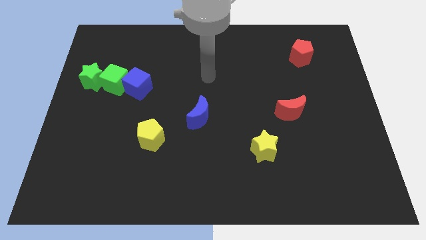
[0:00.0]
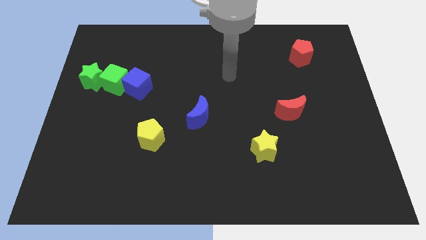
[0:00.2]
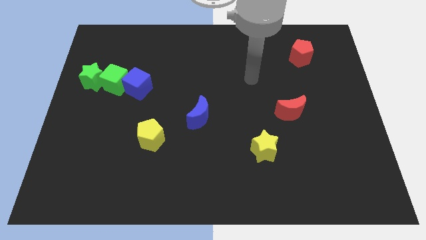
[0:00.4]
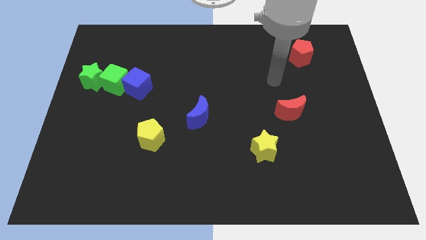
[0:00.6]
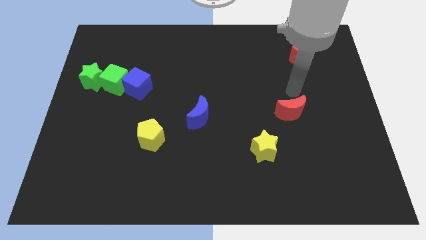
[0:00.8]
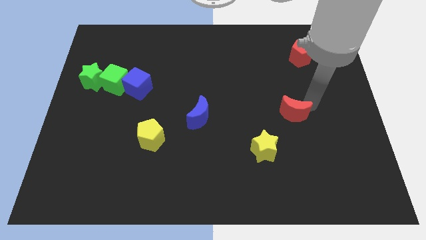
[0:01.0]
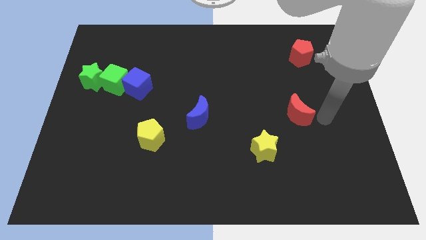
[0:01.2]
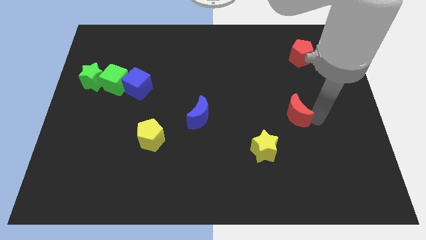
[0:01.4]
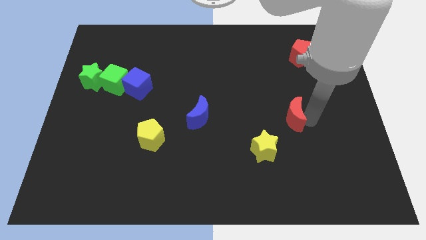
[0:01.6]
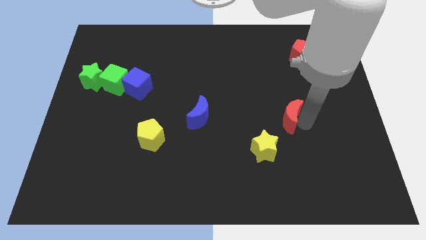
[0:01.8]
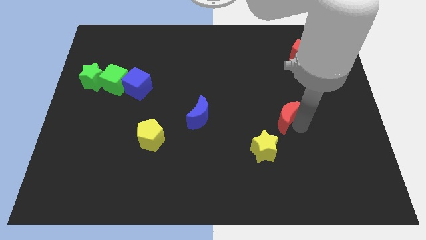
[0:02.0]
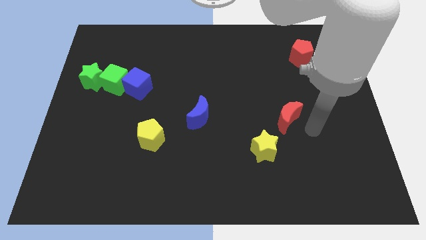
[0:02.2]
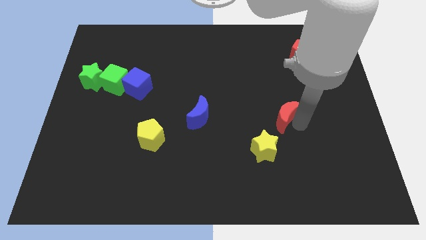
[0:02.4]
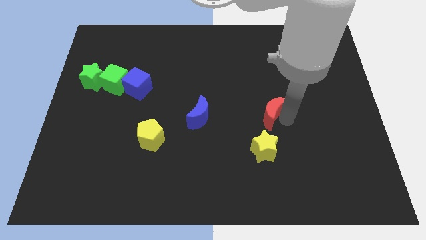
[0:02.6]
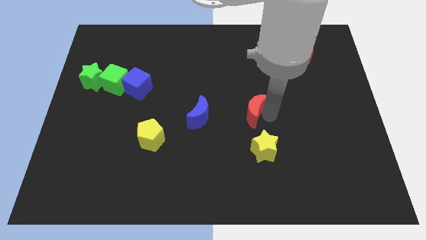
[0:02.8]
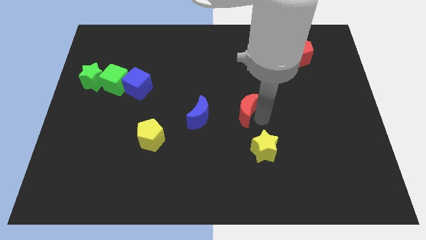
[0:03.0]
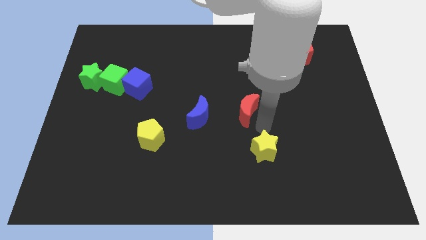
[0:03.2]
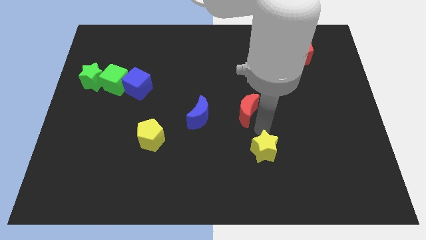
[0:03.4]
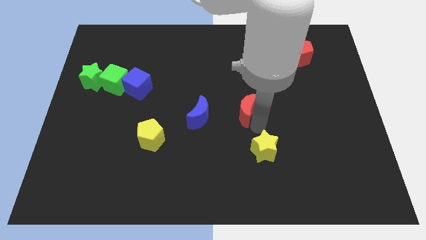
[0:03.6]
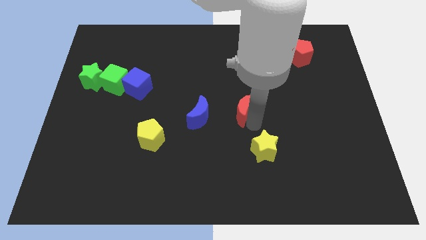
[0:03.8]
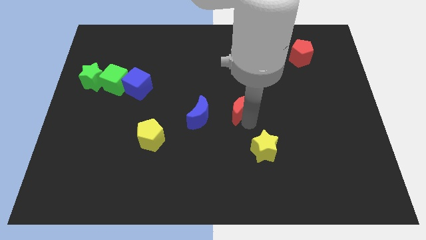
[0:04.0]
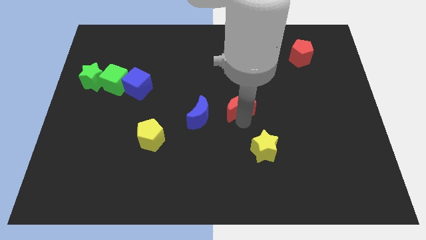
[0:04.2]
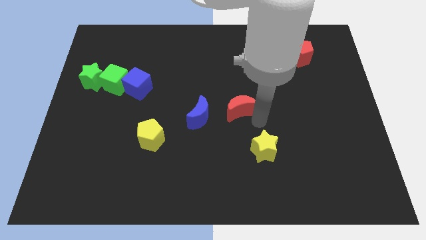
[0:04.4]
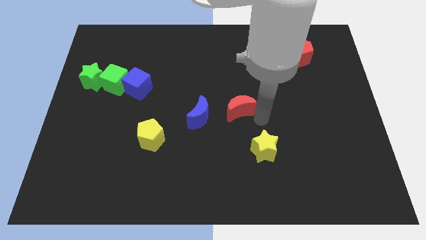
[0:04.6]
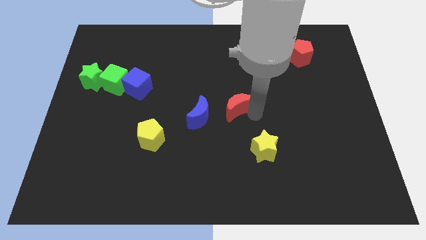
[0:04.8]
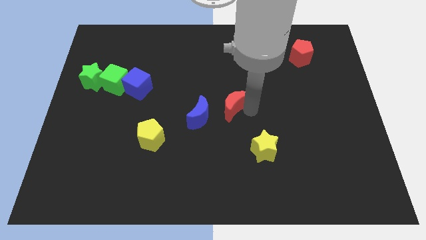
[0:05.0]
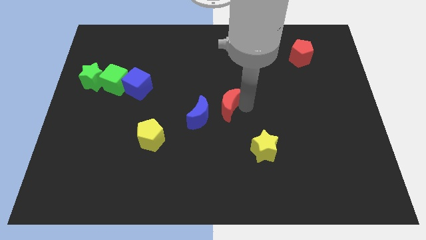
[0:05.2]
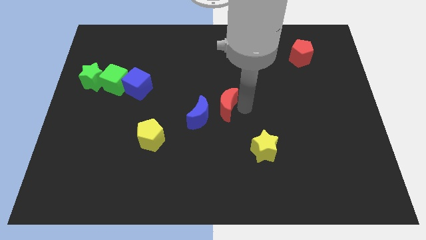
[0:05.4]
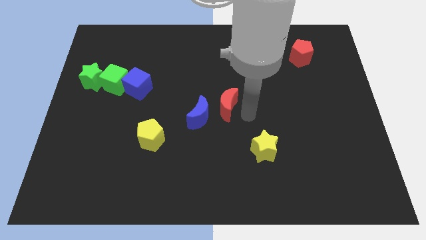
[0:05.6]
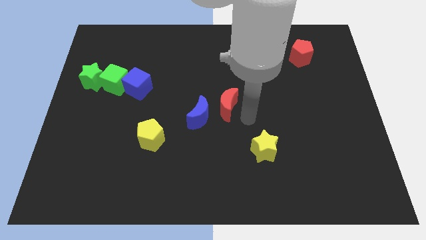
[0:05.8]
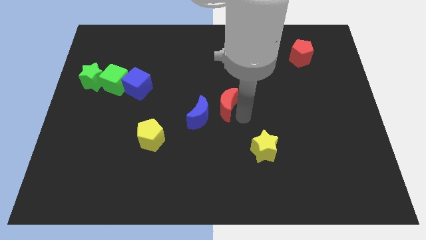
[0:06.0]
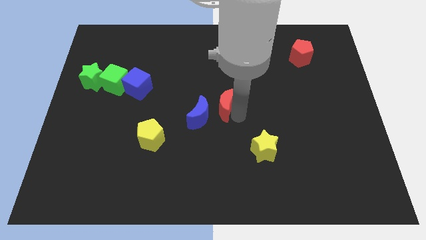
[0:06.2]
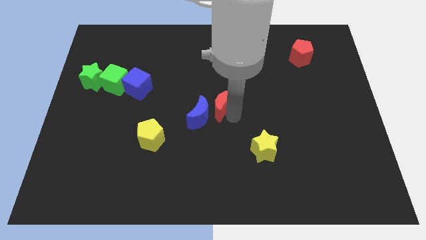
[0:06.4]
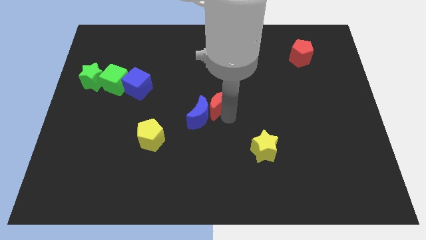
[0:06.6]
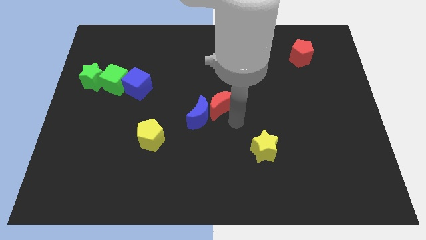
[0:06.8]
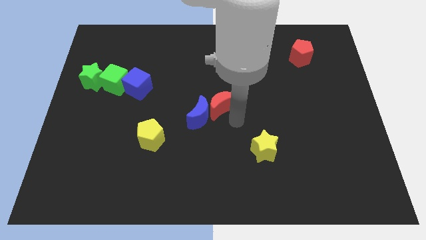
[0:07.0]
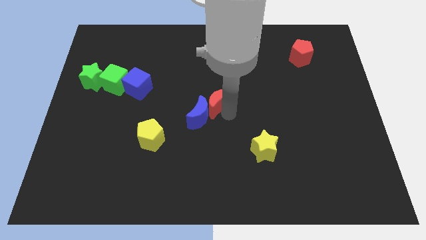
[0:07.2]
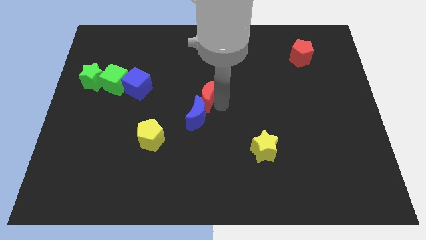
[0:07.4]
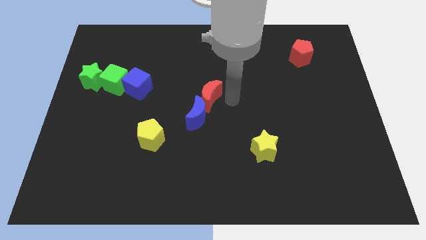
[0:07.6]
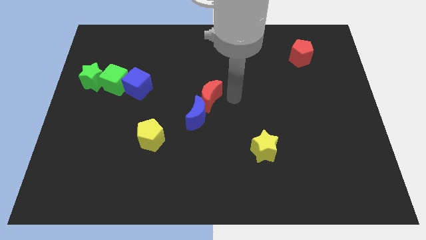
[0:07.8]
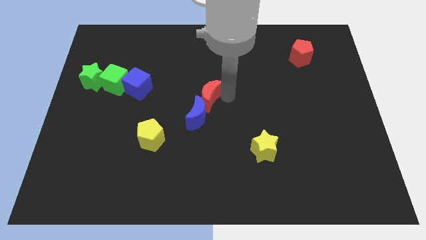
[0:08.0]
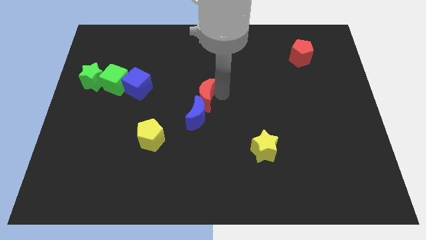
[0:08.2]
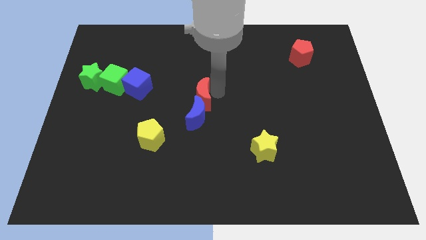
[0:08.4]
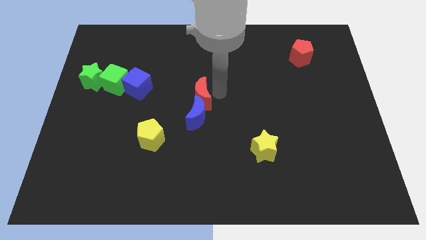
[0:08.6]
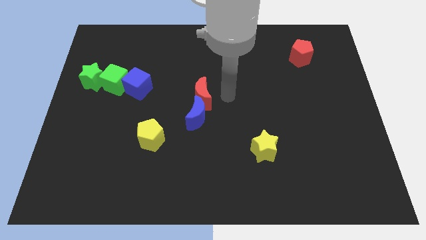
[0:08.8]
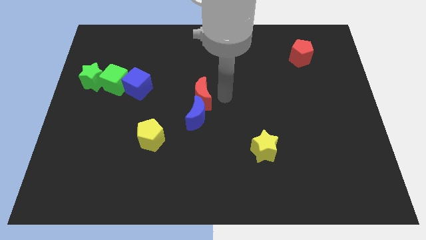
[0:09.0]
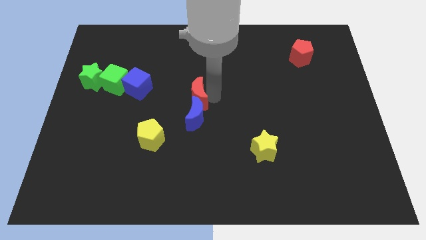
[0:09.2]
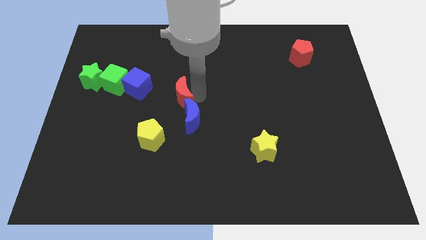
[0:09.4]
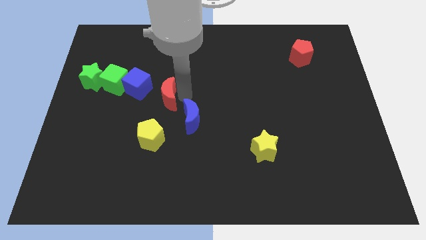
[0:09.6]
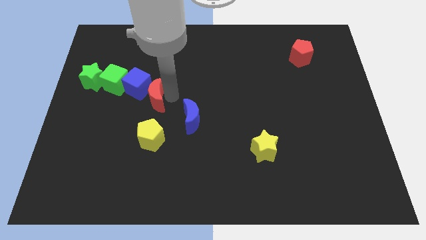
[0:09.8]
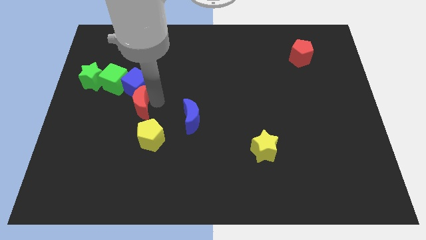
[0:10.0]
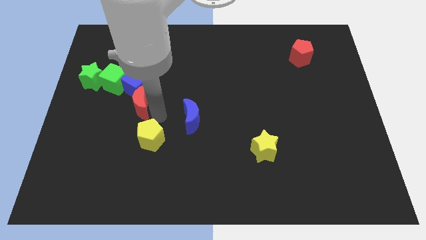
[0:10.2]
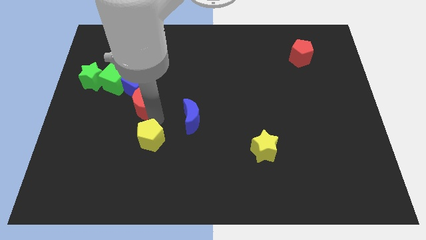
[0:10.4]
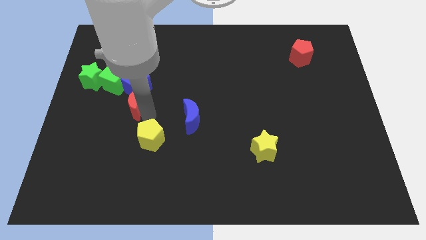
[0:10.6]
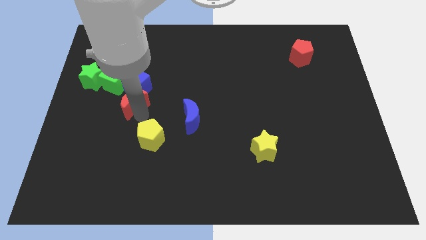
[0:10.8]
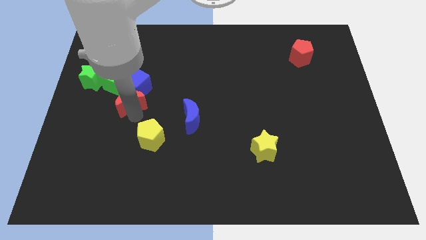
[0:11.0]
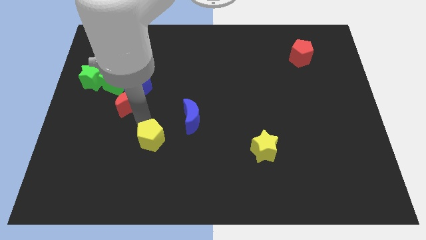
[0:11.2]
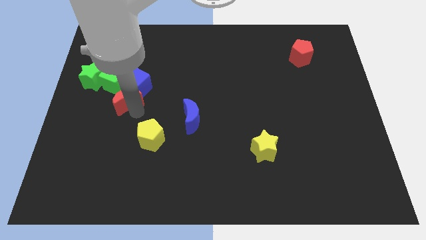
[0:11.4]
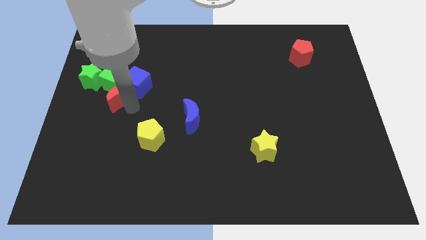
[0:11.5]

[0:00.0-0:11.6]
push the red moon next to the green cube

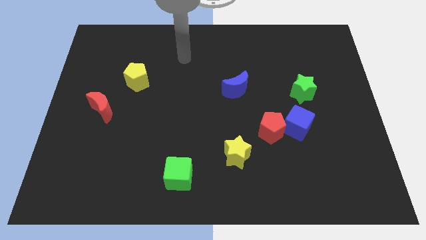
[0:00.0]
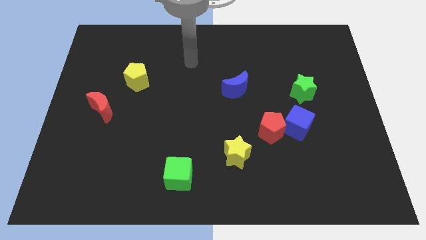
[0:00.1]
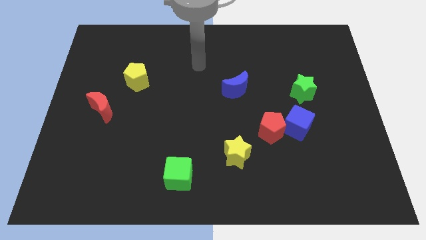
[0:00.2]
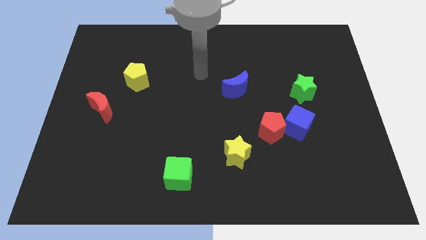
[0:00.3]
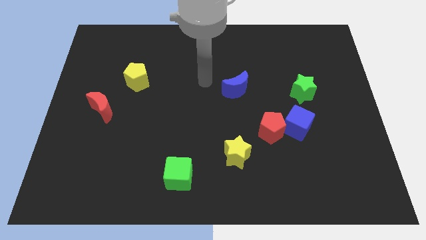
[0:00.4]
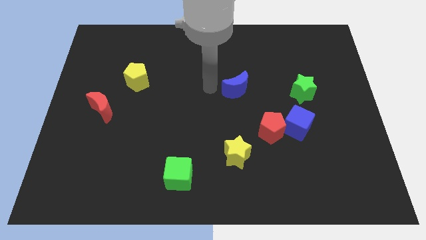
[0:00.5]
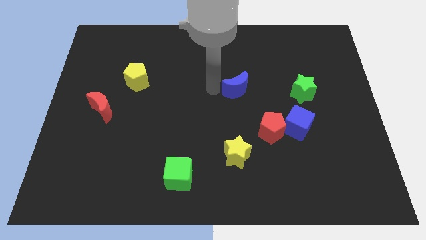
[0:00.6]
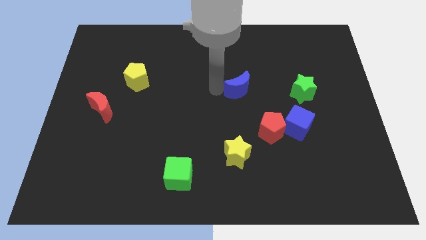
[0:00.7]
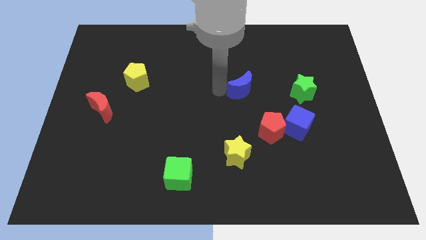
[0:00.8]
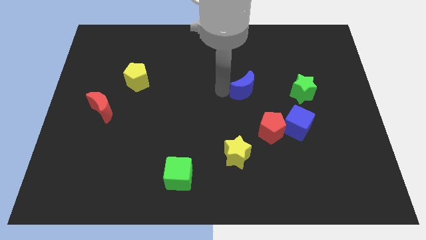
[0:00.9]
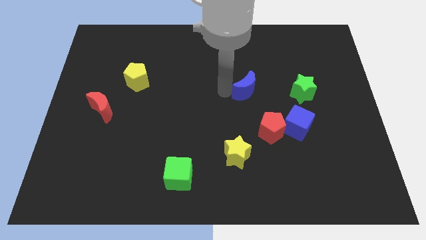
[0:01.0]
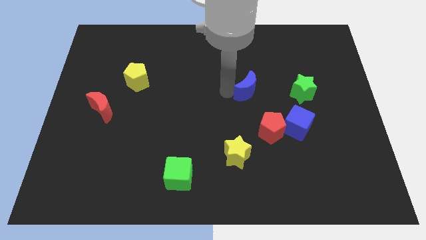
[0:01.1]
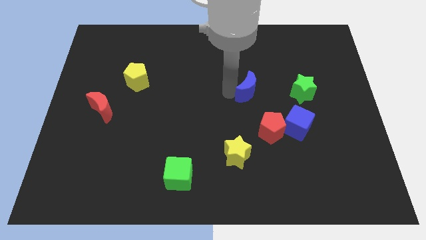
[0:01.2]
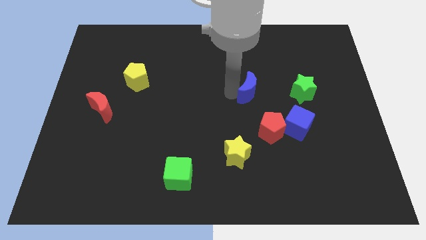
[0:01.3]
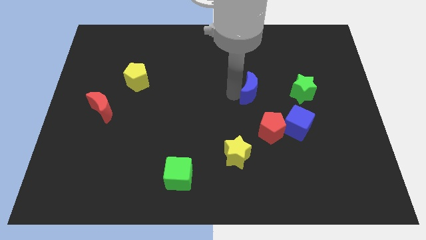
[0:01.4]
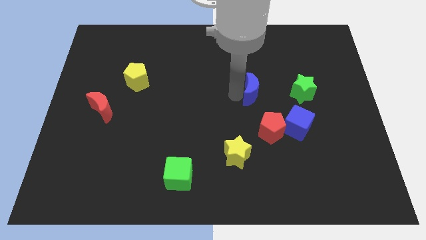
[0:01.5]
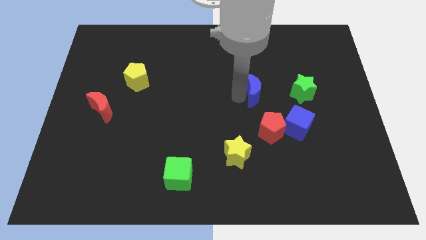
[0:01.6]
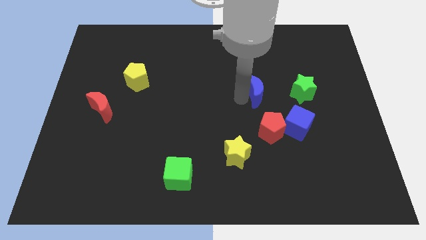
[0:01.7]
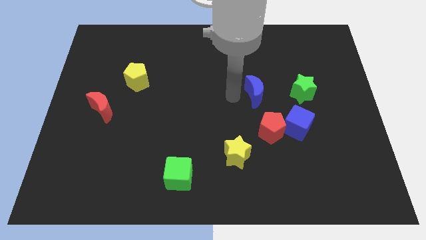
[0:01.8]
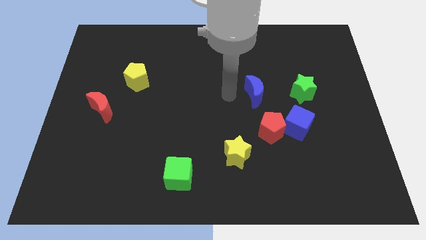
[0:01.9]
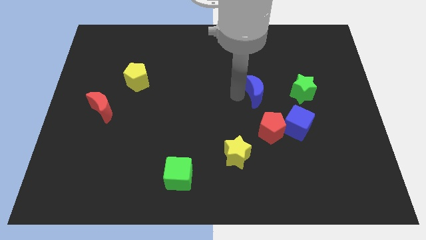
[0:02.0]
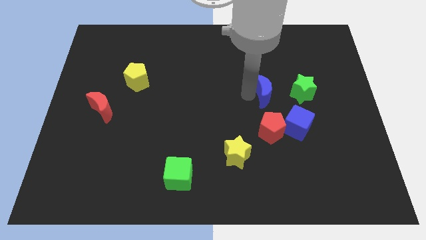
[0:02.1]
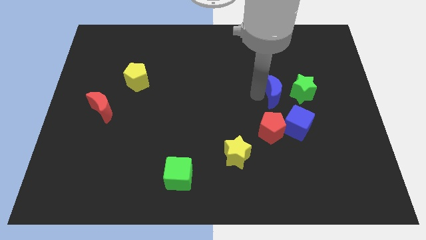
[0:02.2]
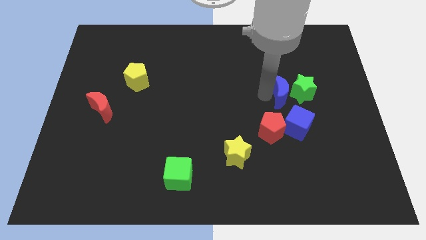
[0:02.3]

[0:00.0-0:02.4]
slide the blue moon close to the green star
